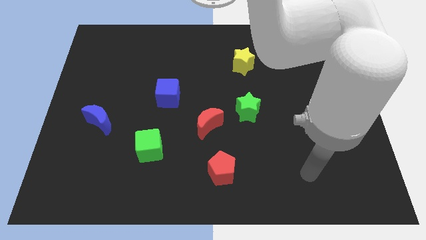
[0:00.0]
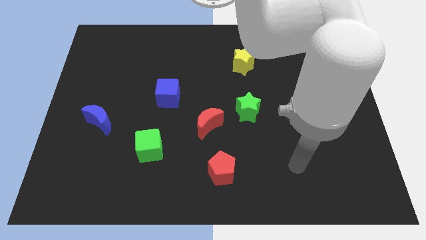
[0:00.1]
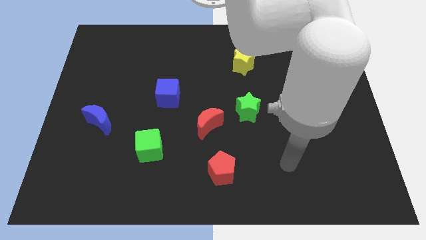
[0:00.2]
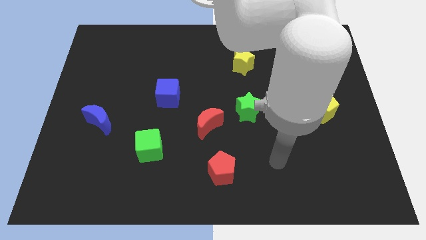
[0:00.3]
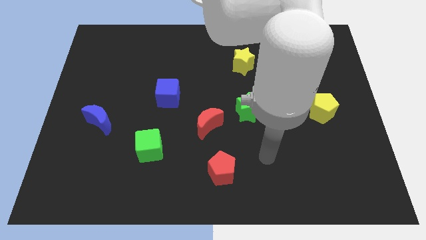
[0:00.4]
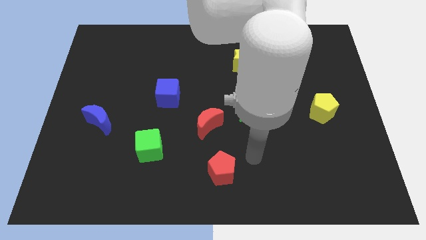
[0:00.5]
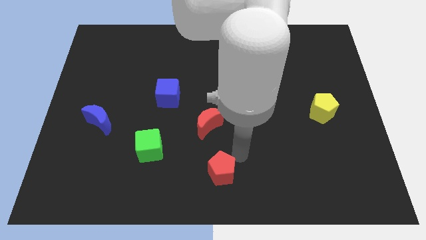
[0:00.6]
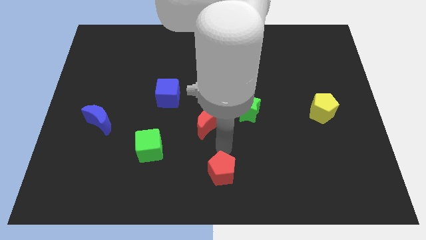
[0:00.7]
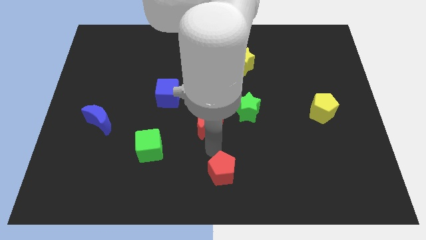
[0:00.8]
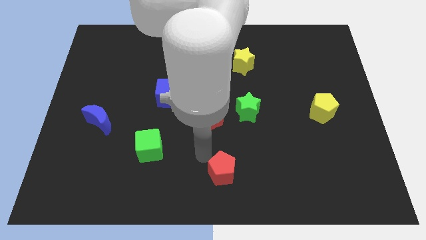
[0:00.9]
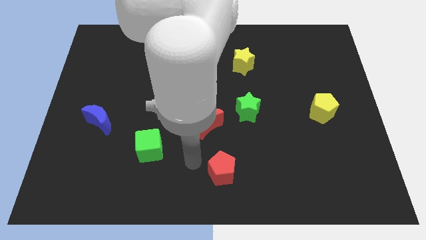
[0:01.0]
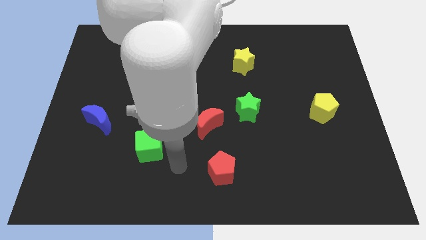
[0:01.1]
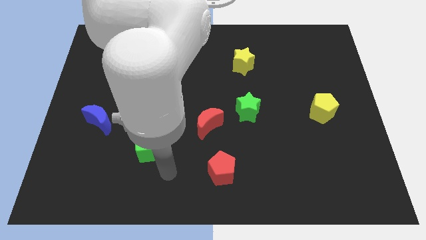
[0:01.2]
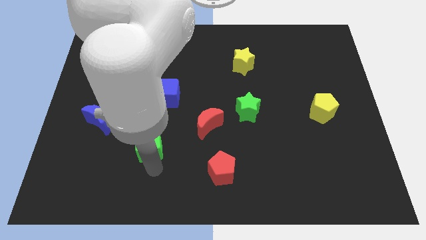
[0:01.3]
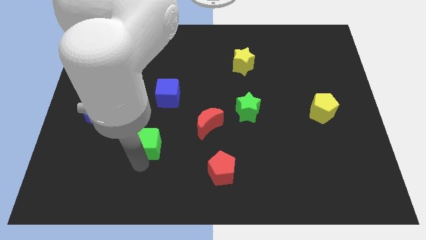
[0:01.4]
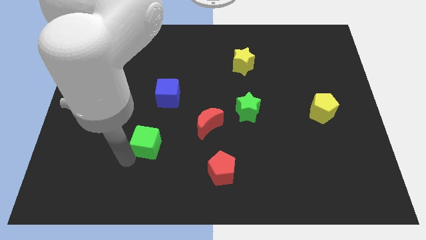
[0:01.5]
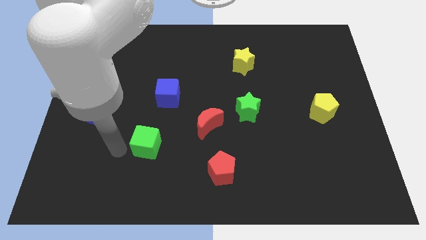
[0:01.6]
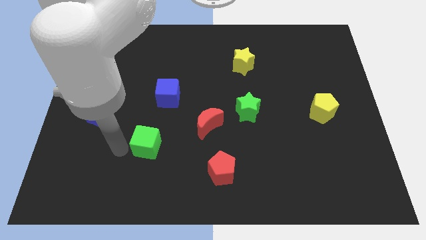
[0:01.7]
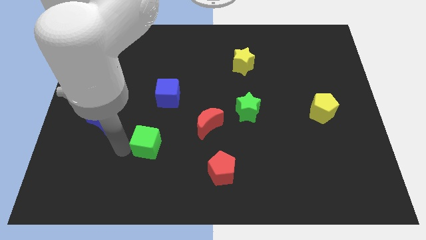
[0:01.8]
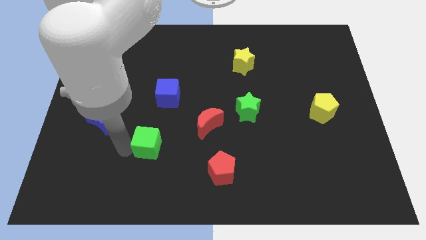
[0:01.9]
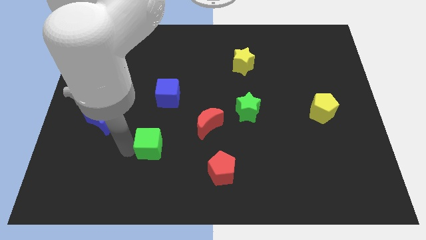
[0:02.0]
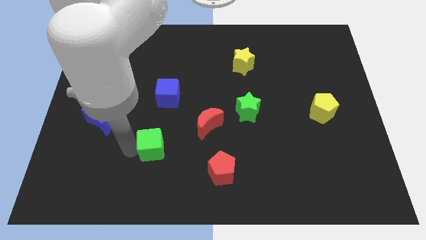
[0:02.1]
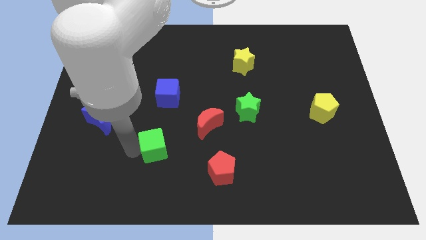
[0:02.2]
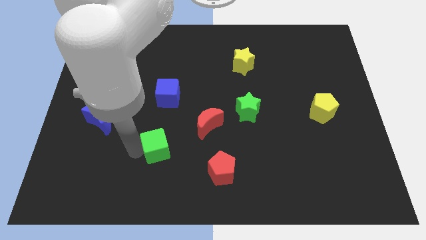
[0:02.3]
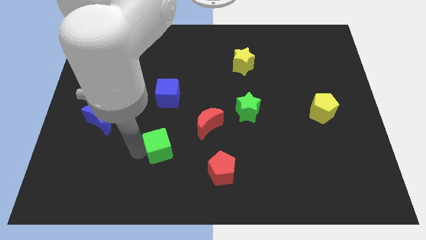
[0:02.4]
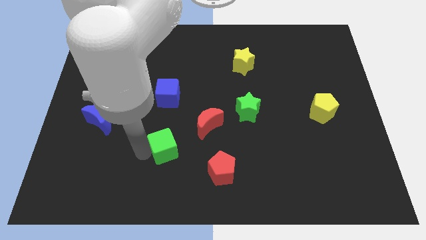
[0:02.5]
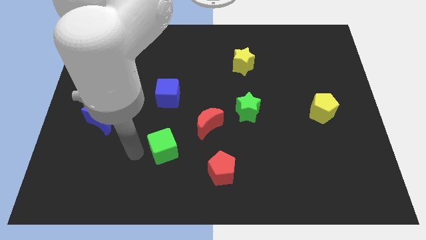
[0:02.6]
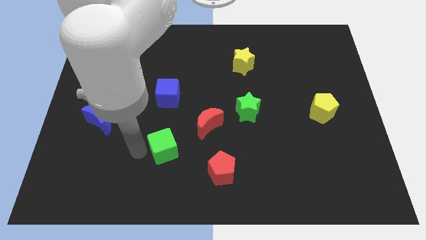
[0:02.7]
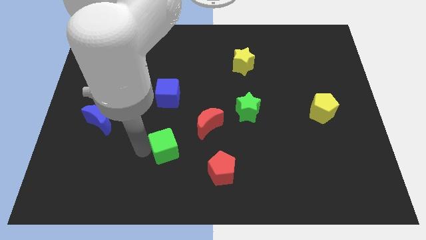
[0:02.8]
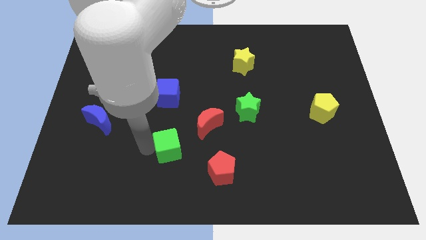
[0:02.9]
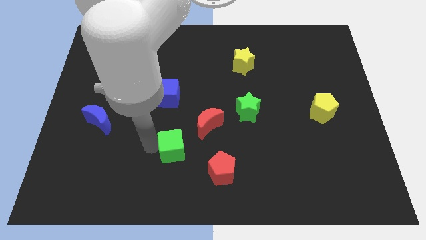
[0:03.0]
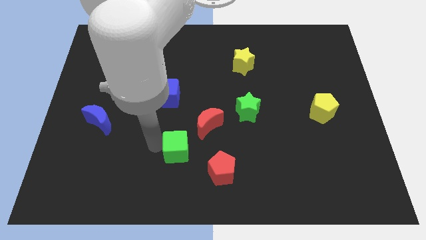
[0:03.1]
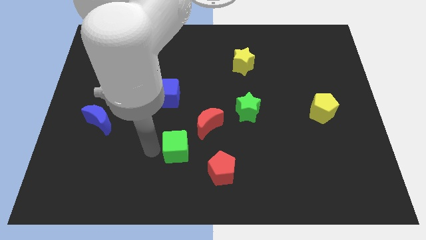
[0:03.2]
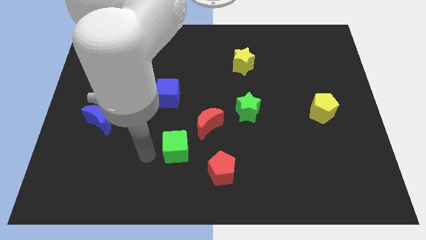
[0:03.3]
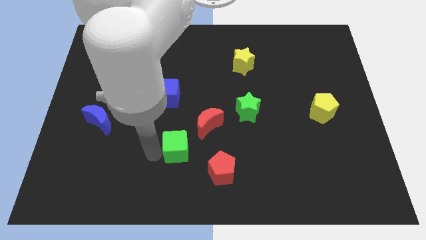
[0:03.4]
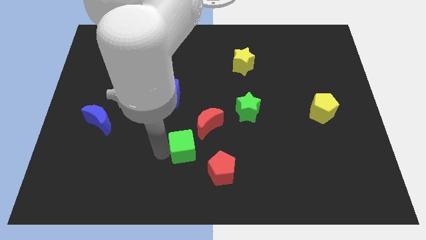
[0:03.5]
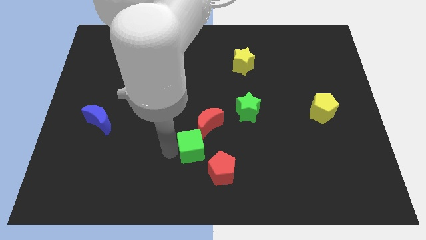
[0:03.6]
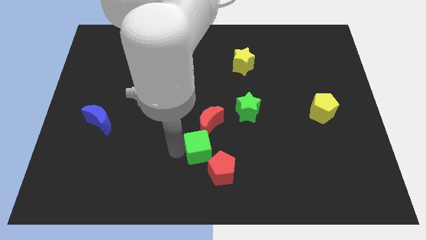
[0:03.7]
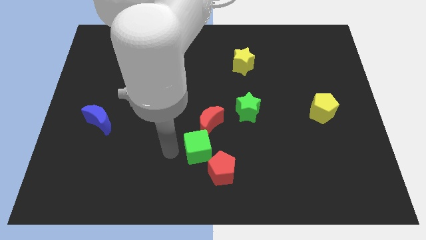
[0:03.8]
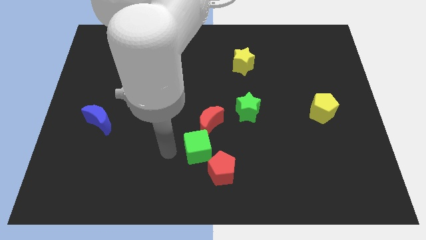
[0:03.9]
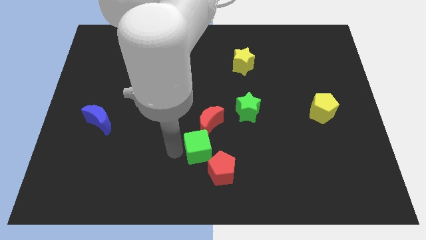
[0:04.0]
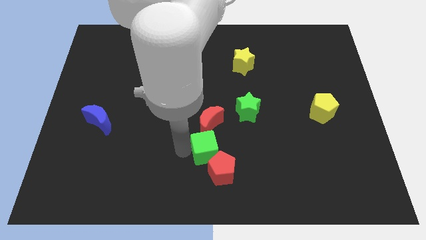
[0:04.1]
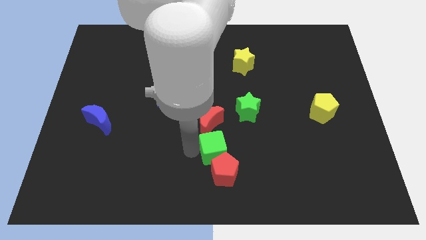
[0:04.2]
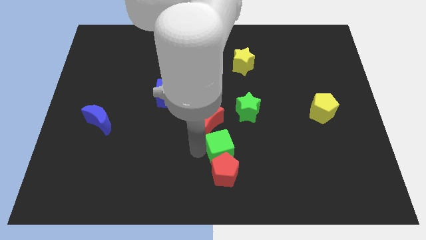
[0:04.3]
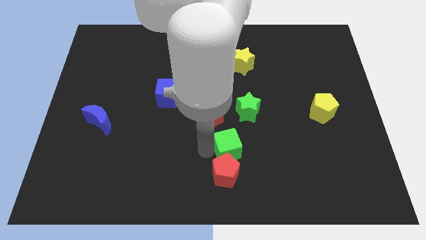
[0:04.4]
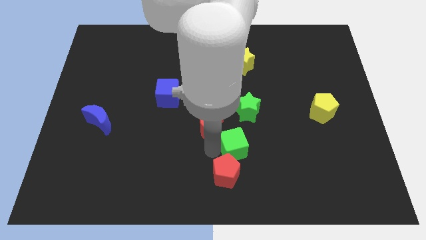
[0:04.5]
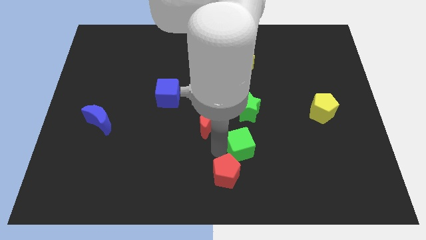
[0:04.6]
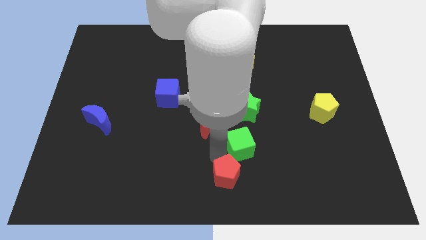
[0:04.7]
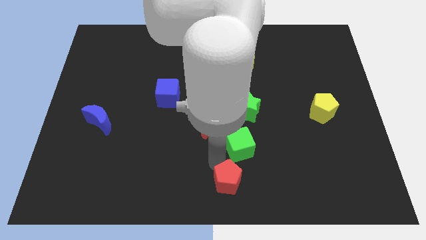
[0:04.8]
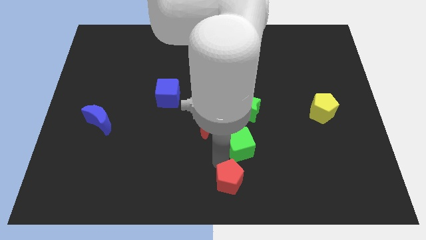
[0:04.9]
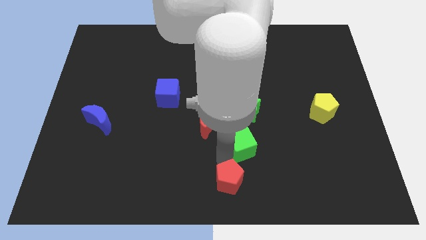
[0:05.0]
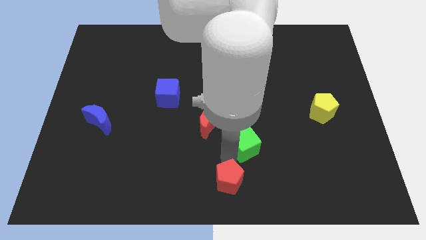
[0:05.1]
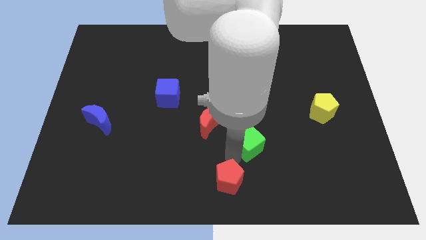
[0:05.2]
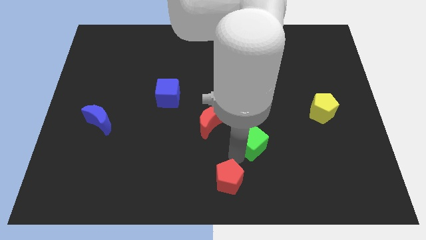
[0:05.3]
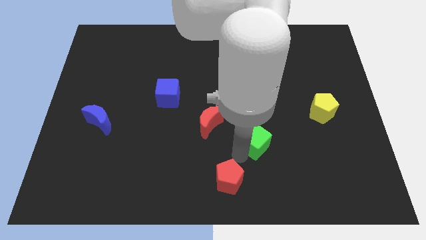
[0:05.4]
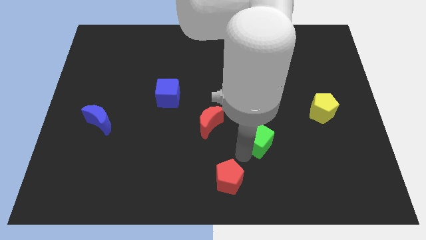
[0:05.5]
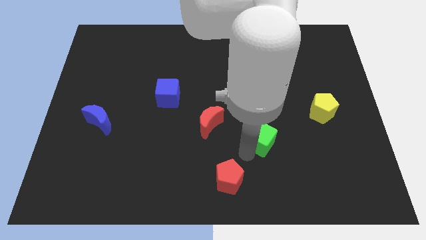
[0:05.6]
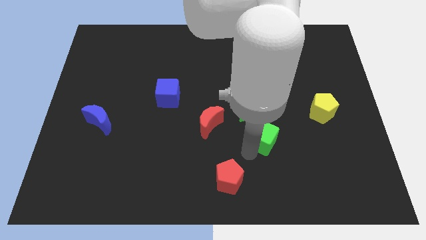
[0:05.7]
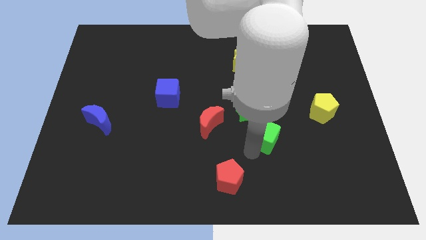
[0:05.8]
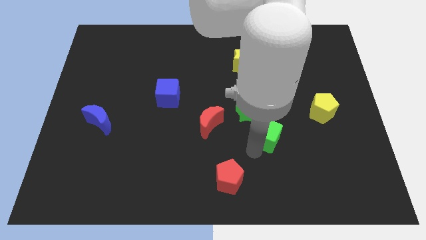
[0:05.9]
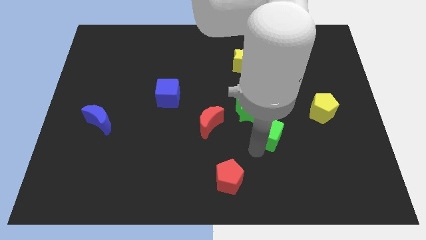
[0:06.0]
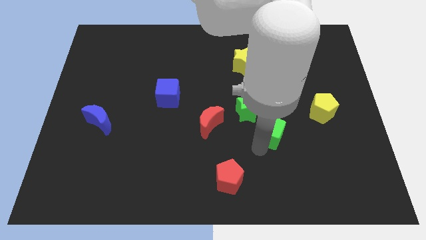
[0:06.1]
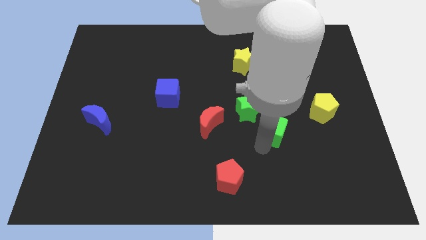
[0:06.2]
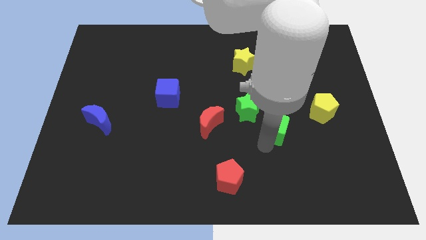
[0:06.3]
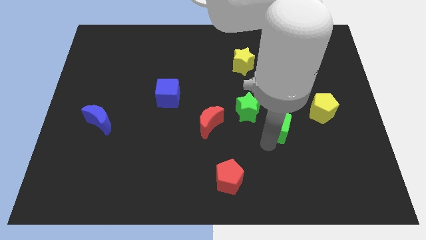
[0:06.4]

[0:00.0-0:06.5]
move the green cube left of the yellow pentagon

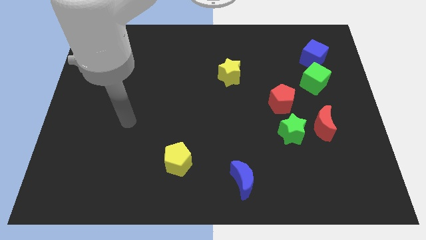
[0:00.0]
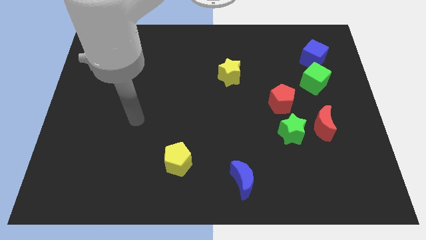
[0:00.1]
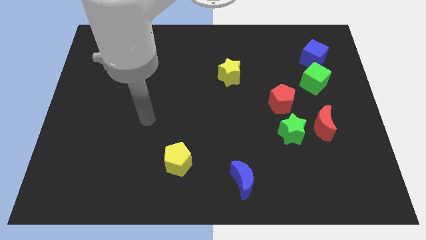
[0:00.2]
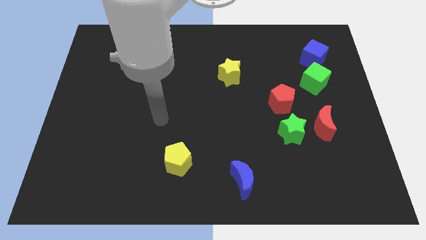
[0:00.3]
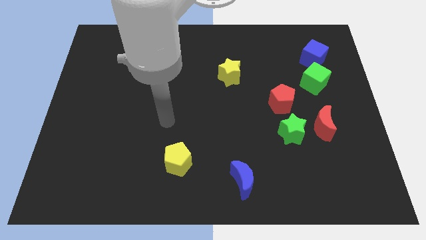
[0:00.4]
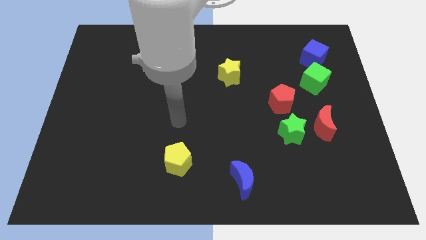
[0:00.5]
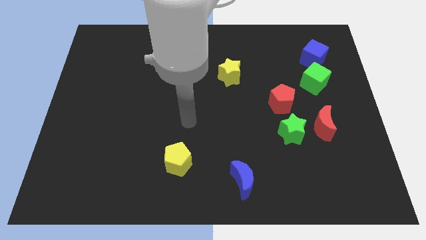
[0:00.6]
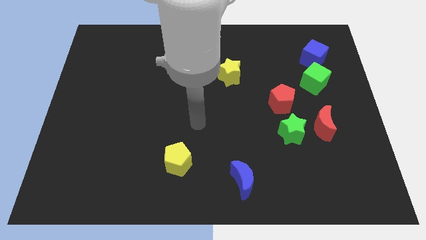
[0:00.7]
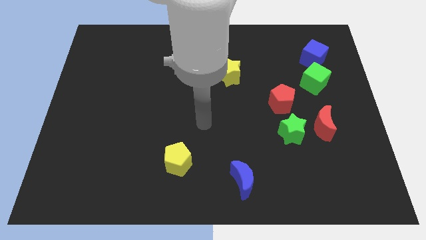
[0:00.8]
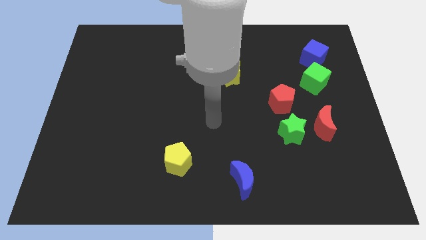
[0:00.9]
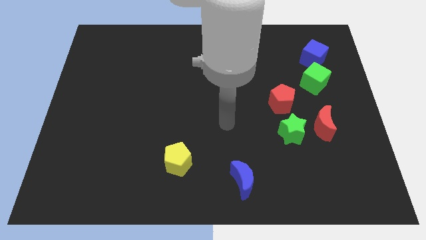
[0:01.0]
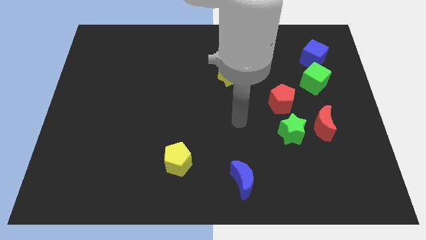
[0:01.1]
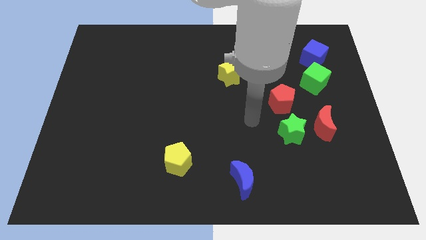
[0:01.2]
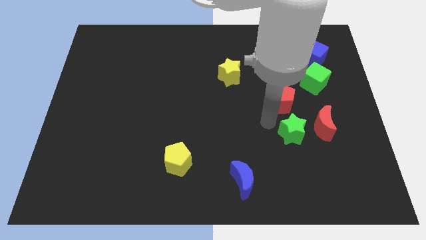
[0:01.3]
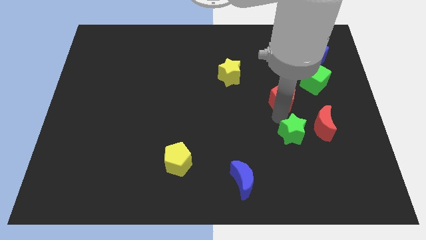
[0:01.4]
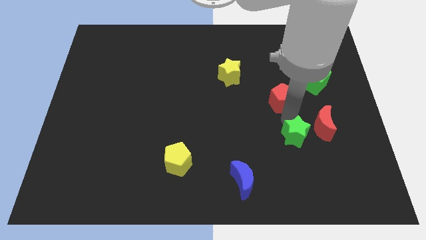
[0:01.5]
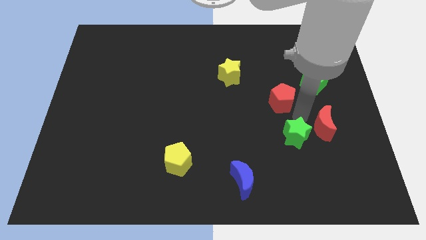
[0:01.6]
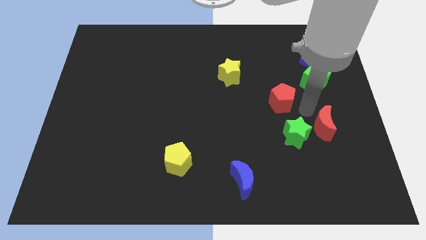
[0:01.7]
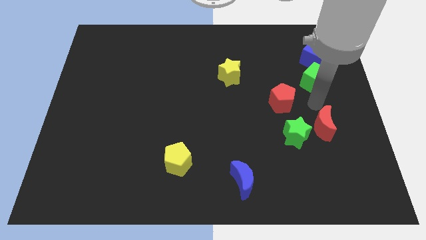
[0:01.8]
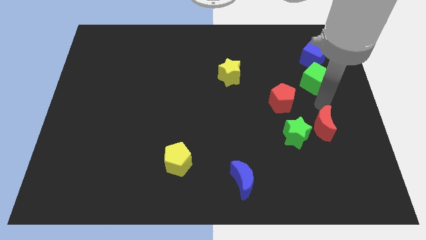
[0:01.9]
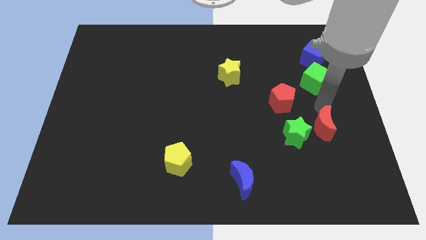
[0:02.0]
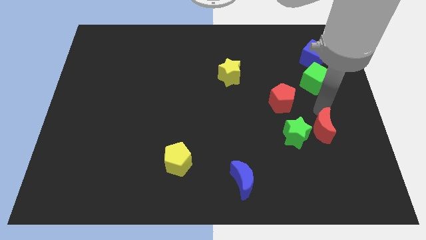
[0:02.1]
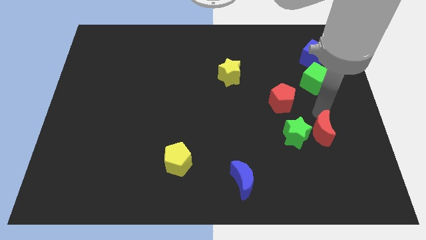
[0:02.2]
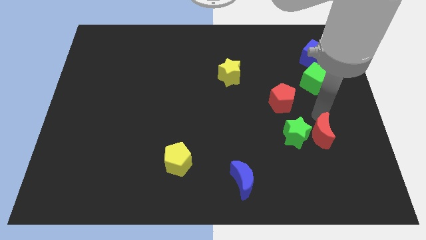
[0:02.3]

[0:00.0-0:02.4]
slide the red moon to the bottom right of the green star
